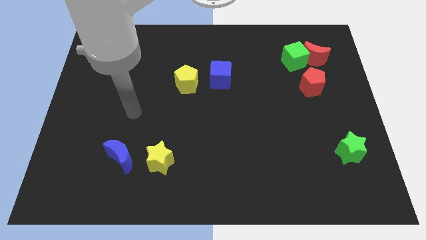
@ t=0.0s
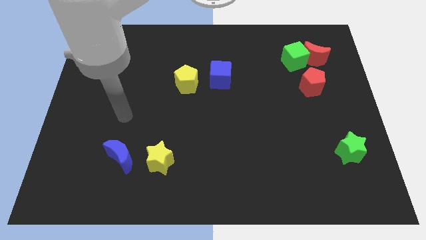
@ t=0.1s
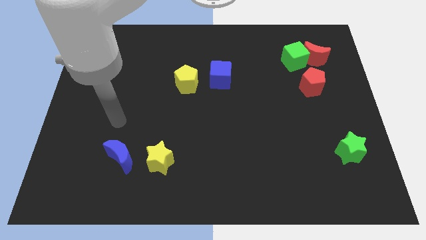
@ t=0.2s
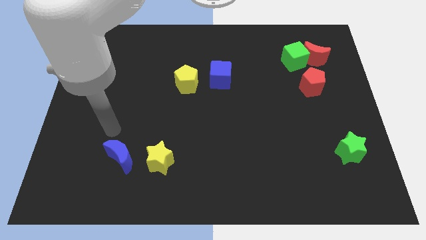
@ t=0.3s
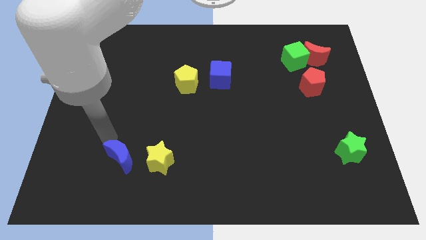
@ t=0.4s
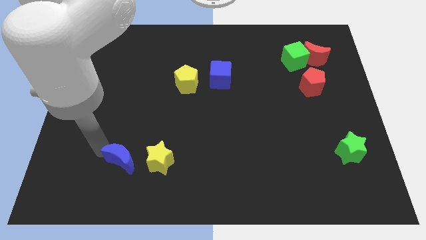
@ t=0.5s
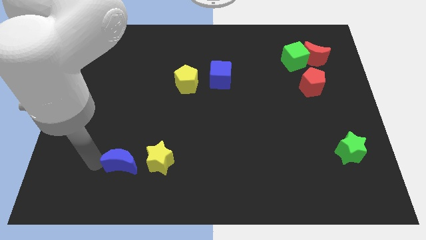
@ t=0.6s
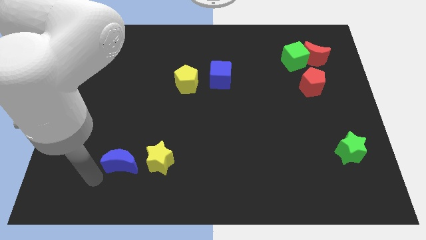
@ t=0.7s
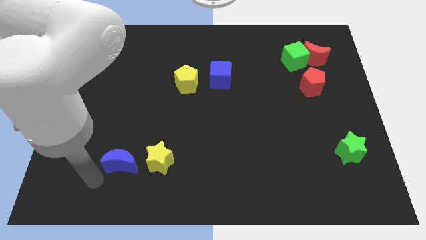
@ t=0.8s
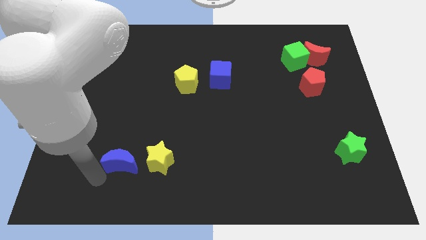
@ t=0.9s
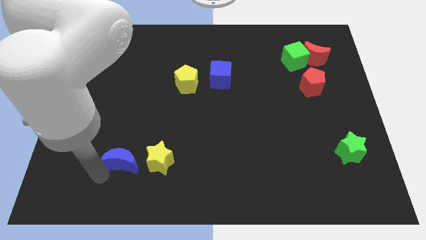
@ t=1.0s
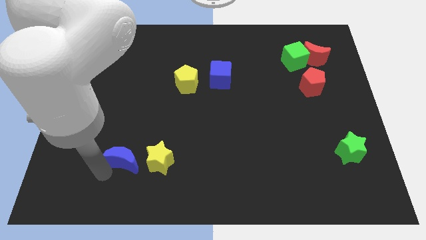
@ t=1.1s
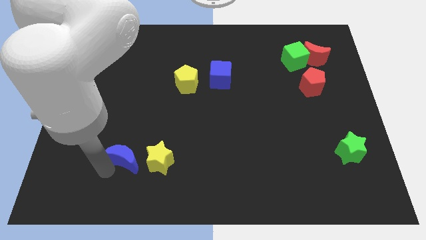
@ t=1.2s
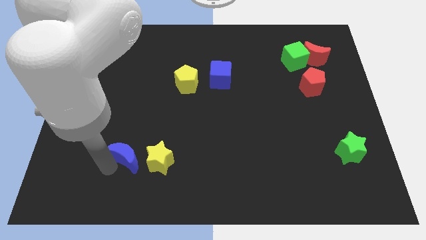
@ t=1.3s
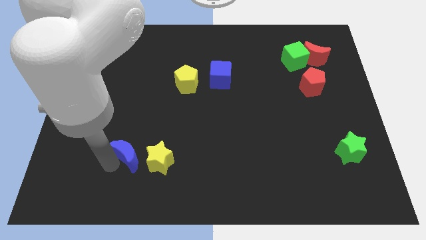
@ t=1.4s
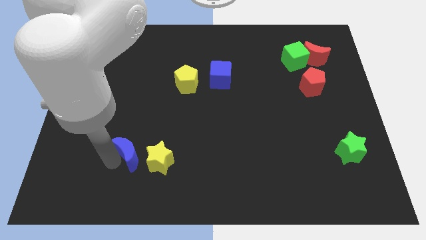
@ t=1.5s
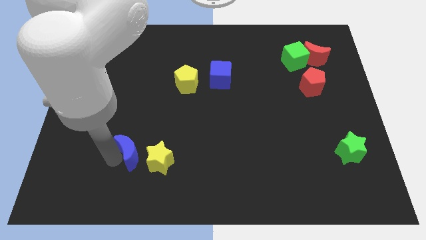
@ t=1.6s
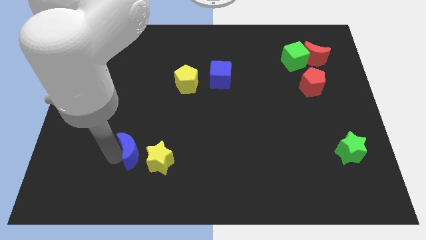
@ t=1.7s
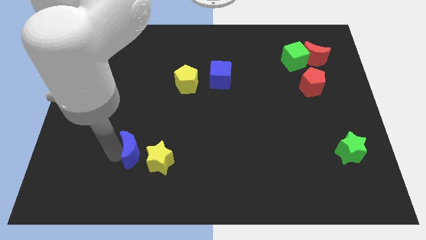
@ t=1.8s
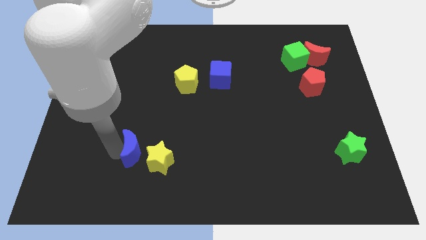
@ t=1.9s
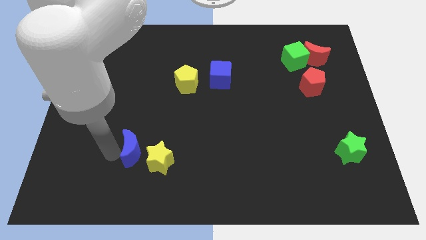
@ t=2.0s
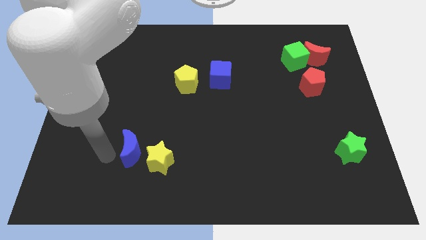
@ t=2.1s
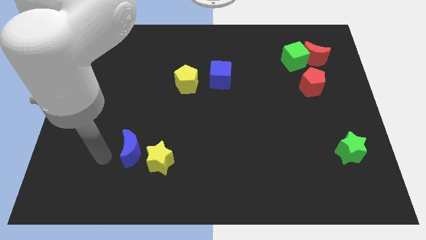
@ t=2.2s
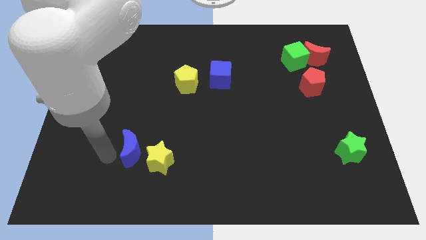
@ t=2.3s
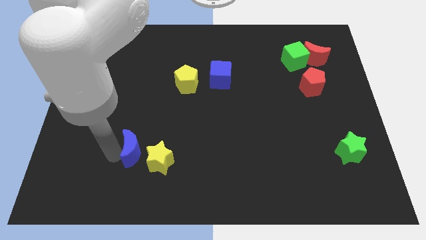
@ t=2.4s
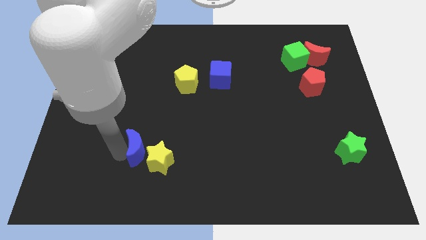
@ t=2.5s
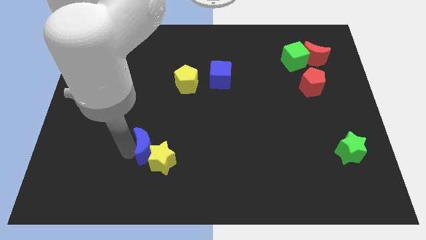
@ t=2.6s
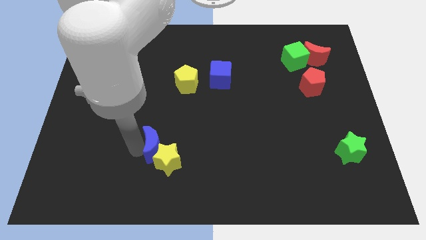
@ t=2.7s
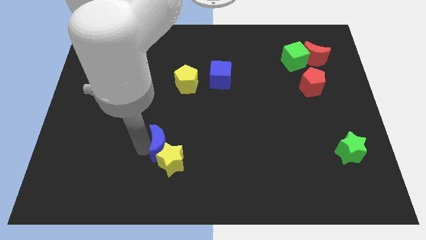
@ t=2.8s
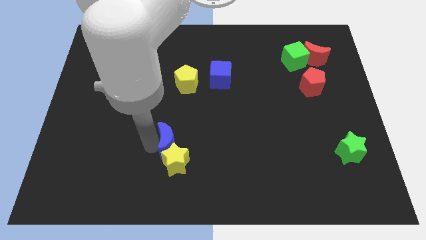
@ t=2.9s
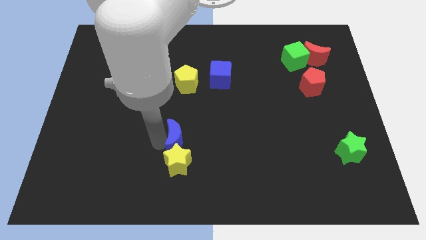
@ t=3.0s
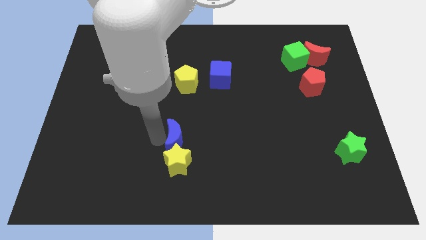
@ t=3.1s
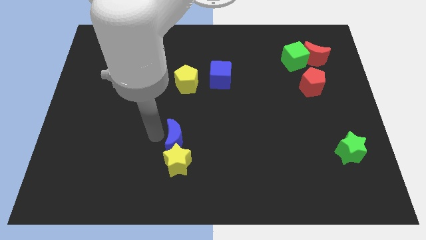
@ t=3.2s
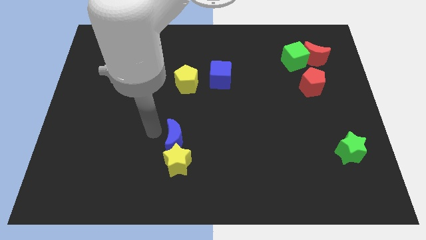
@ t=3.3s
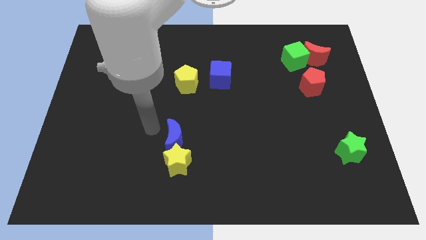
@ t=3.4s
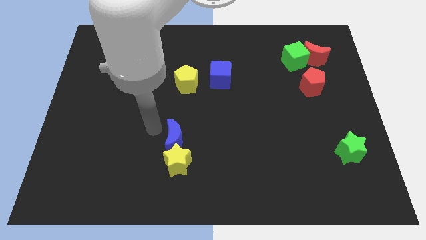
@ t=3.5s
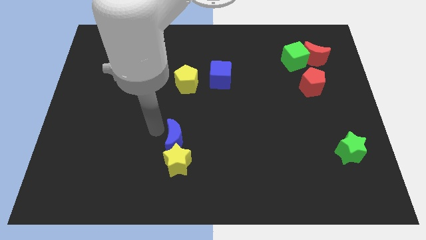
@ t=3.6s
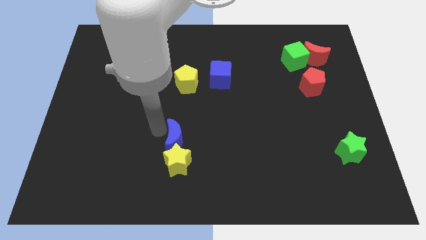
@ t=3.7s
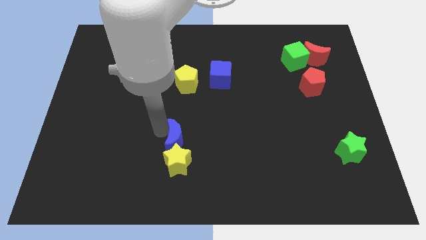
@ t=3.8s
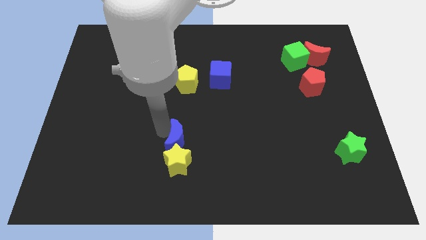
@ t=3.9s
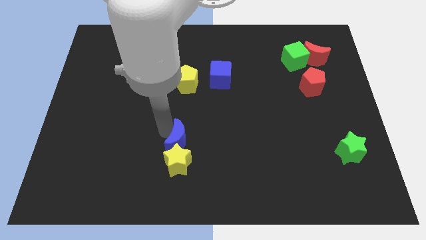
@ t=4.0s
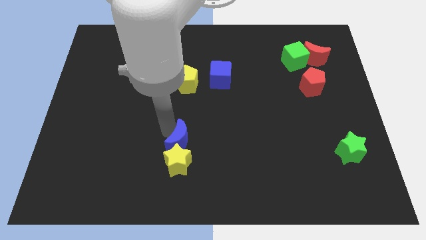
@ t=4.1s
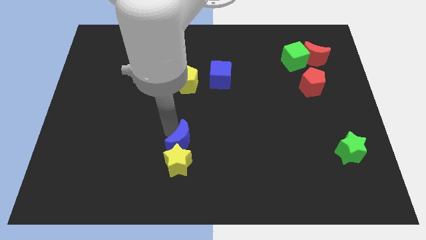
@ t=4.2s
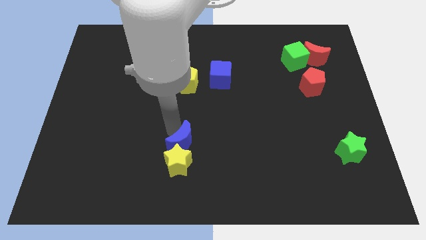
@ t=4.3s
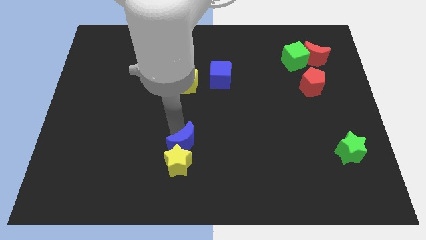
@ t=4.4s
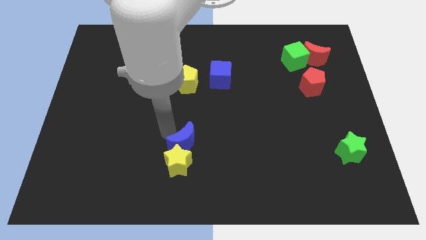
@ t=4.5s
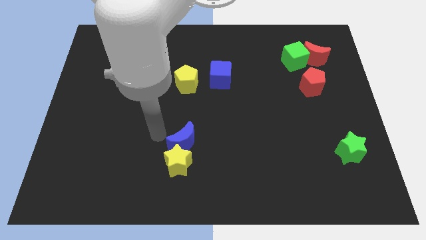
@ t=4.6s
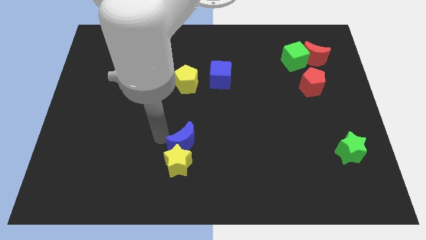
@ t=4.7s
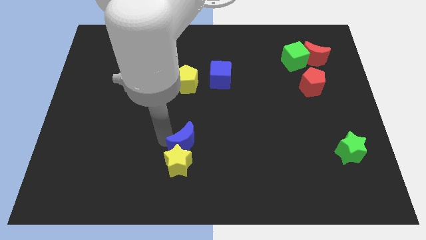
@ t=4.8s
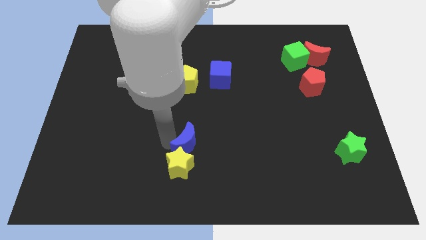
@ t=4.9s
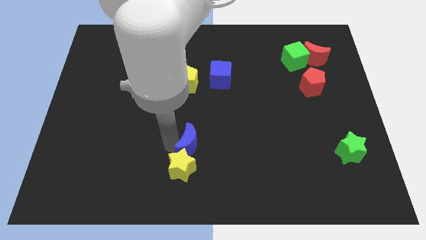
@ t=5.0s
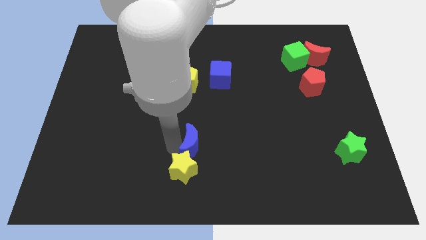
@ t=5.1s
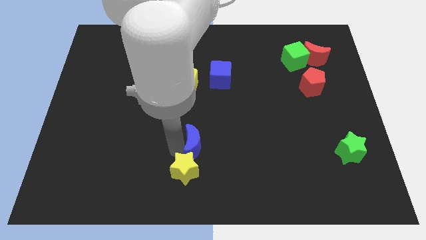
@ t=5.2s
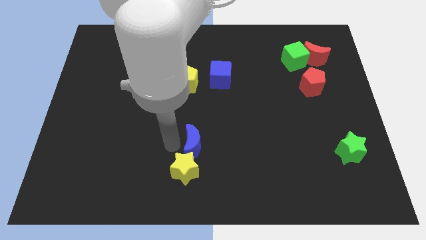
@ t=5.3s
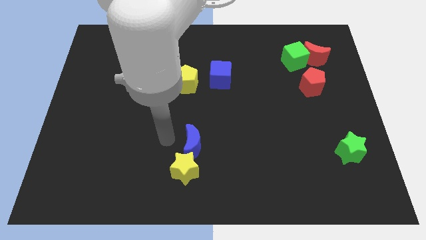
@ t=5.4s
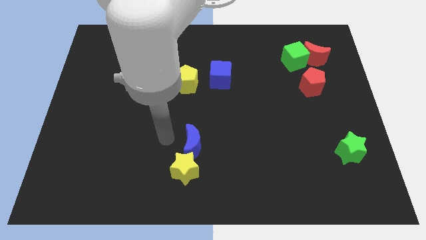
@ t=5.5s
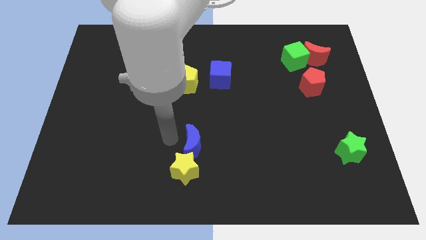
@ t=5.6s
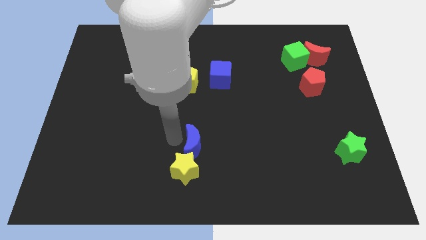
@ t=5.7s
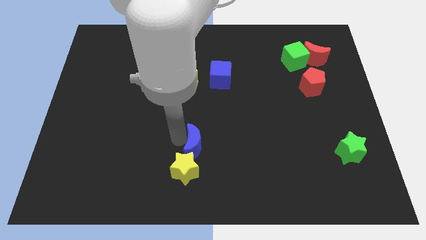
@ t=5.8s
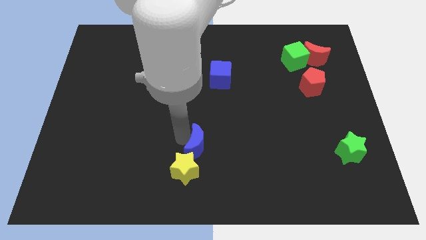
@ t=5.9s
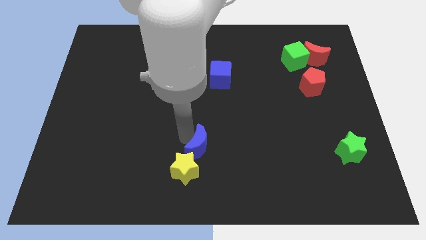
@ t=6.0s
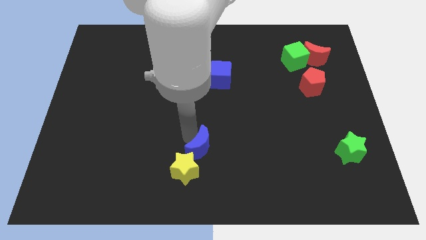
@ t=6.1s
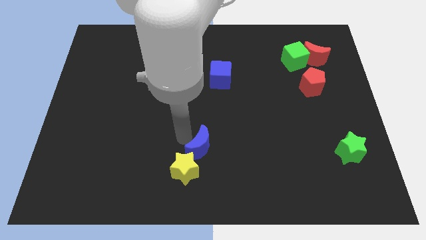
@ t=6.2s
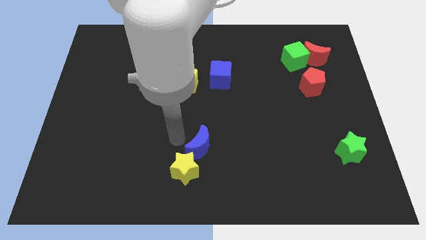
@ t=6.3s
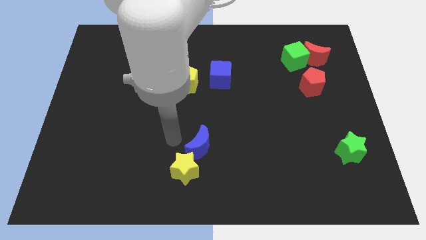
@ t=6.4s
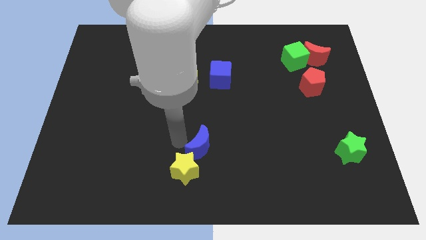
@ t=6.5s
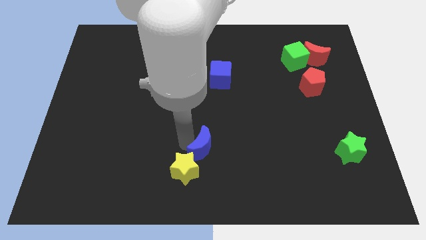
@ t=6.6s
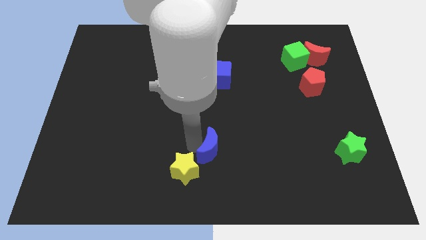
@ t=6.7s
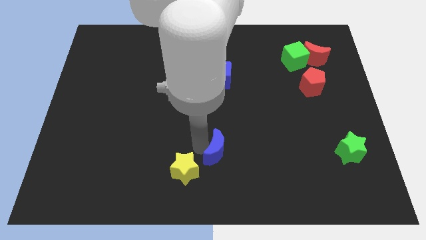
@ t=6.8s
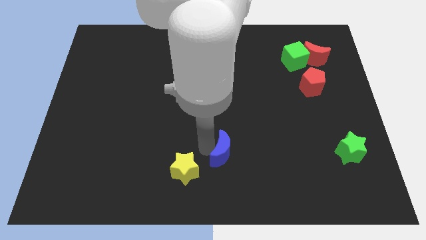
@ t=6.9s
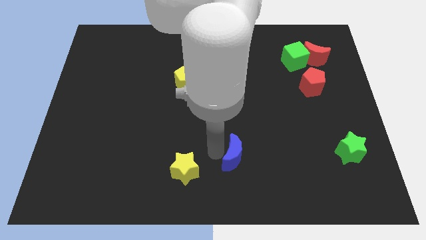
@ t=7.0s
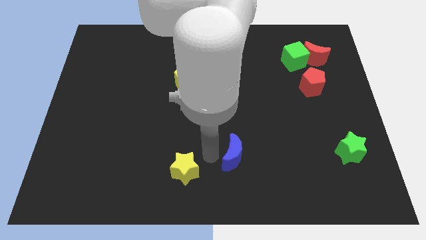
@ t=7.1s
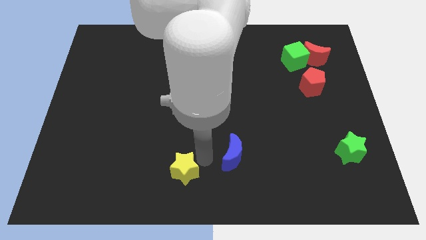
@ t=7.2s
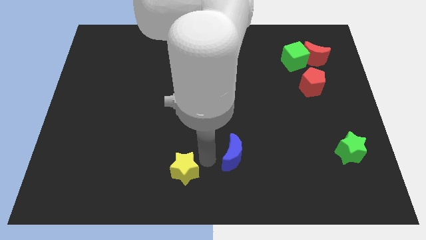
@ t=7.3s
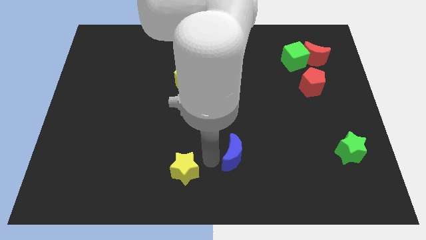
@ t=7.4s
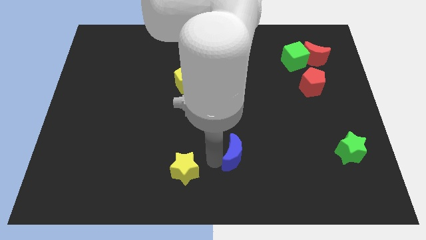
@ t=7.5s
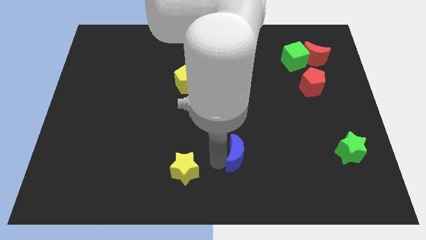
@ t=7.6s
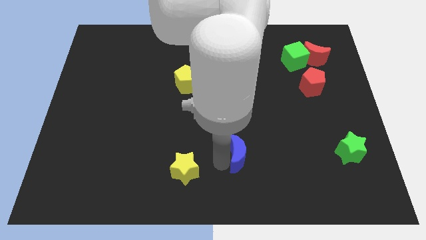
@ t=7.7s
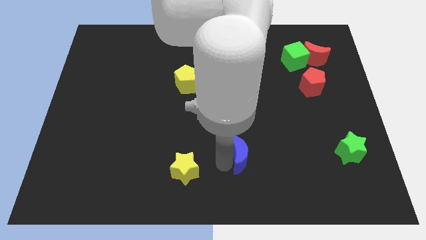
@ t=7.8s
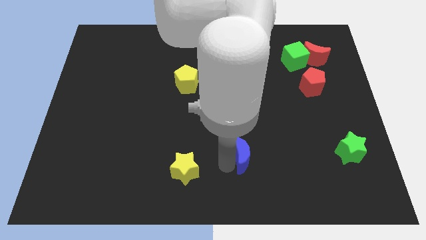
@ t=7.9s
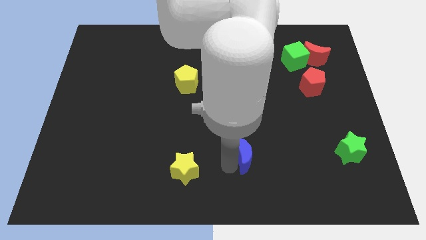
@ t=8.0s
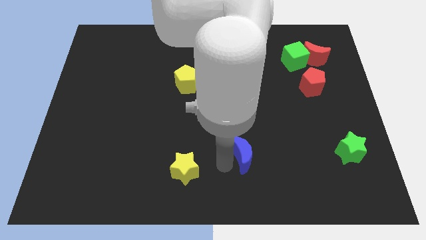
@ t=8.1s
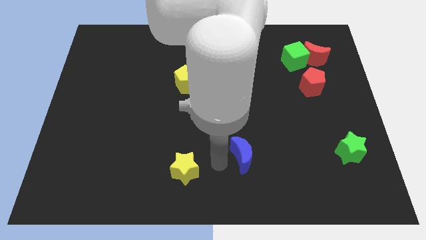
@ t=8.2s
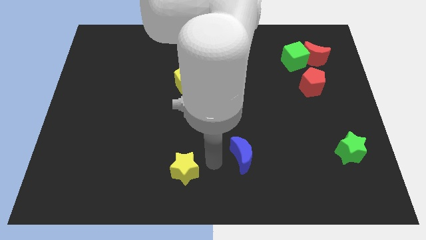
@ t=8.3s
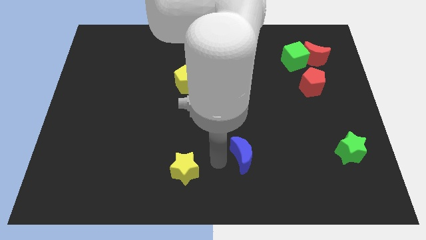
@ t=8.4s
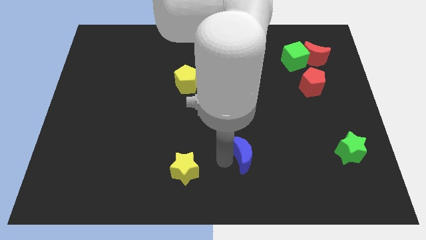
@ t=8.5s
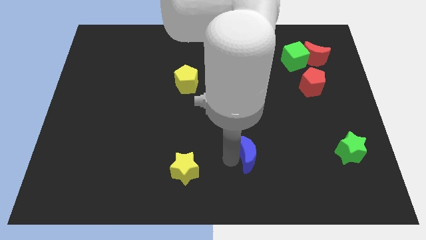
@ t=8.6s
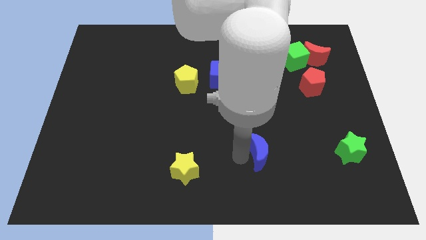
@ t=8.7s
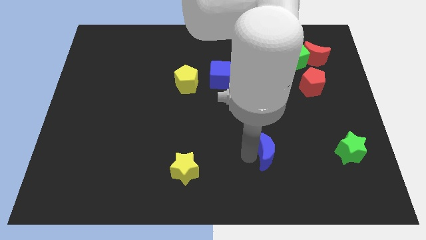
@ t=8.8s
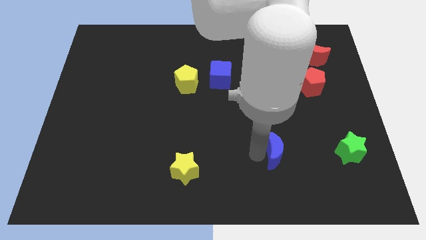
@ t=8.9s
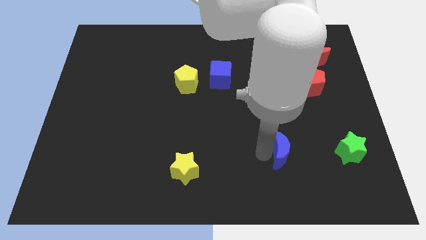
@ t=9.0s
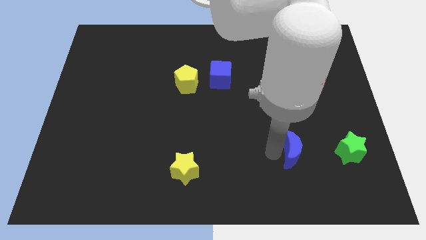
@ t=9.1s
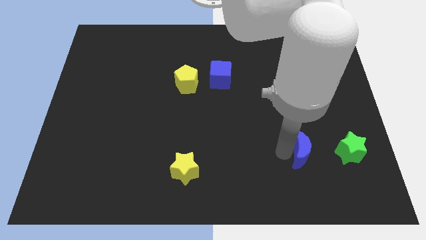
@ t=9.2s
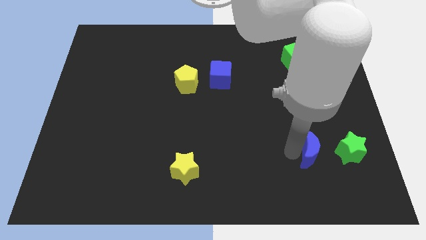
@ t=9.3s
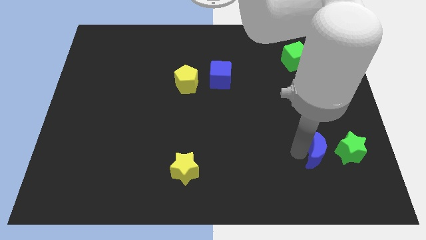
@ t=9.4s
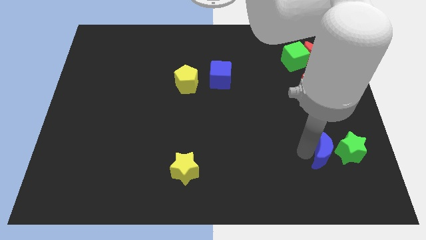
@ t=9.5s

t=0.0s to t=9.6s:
slide the blue moon towards the green star
